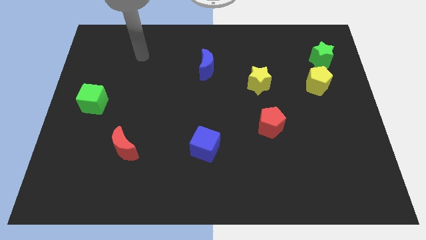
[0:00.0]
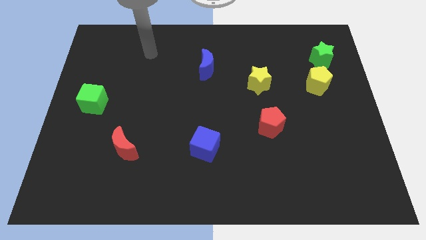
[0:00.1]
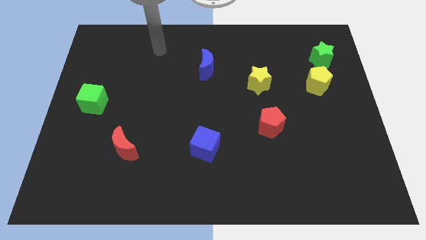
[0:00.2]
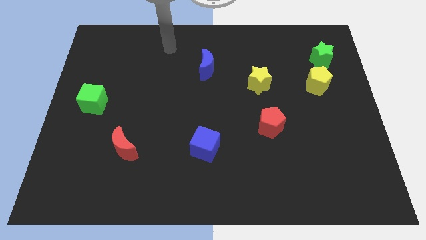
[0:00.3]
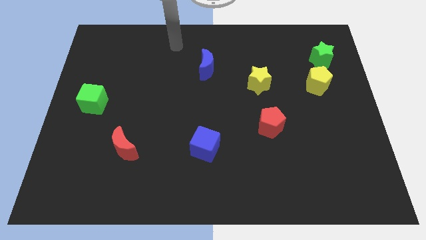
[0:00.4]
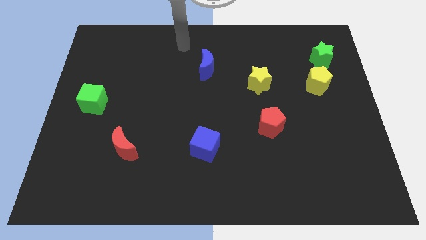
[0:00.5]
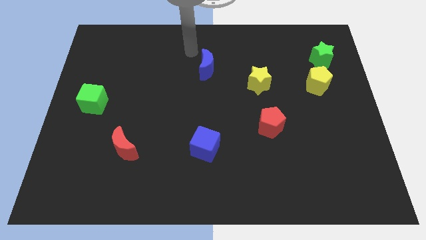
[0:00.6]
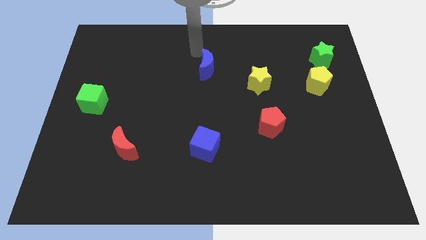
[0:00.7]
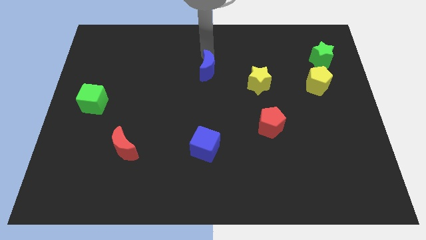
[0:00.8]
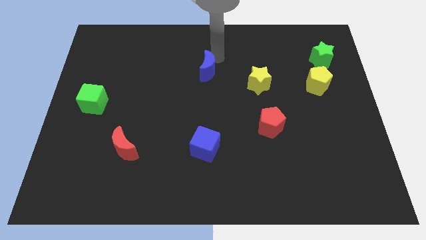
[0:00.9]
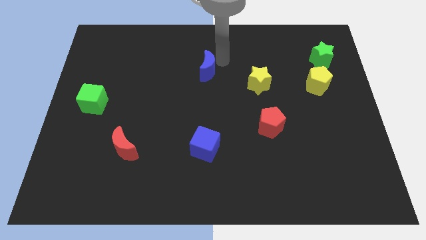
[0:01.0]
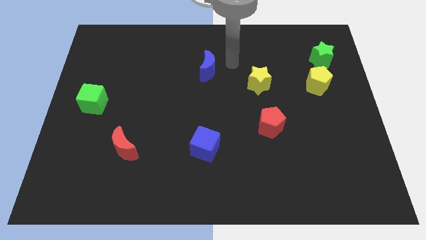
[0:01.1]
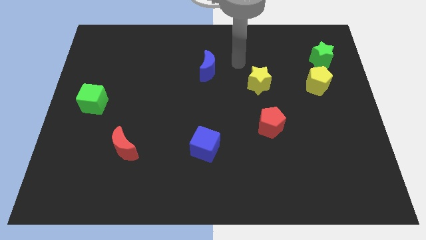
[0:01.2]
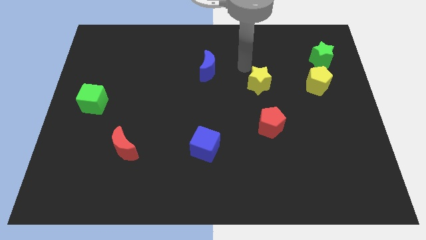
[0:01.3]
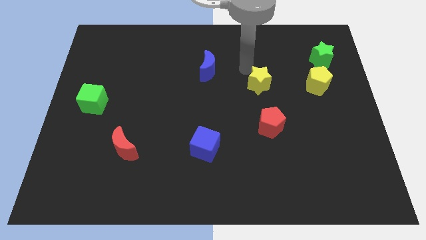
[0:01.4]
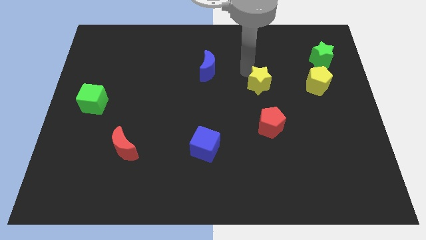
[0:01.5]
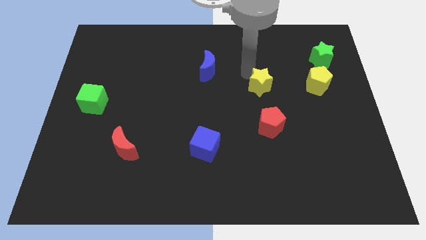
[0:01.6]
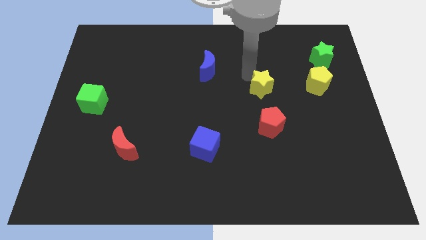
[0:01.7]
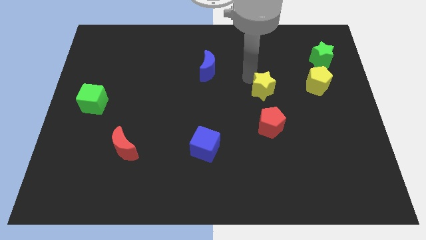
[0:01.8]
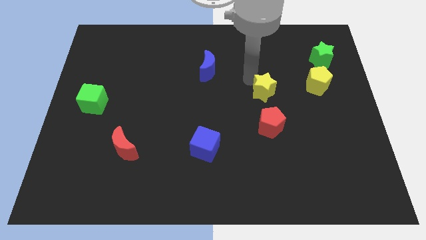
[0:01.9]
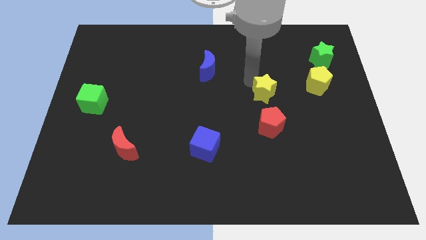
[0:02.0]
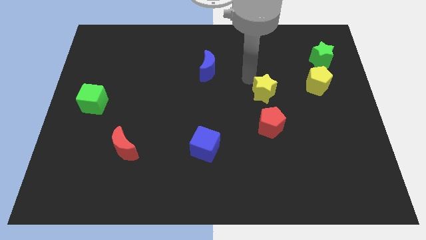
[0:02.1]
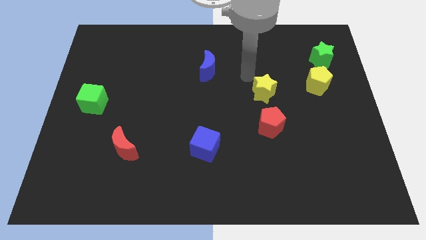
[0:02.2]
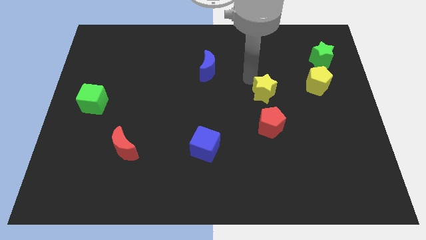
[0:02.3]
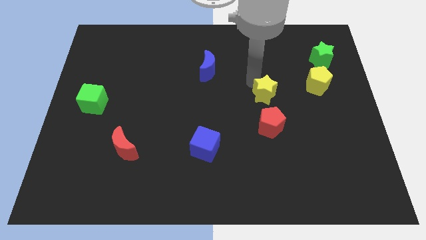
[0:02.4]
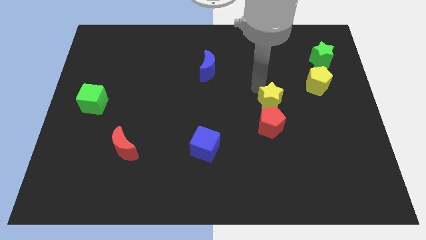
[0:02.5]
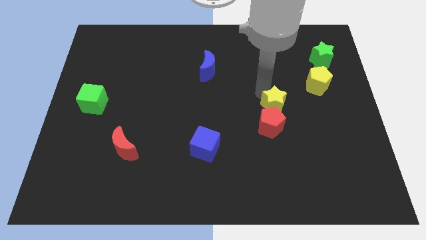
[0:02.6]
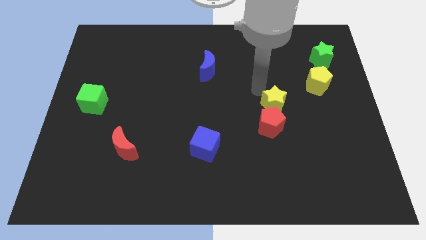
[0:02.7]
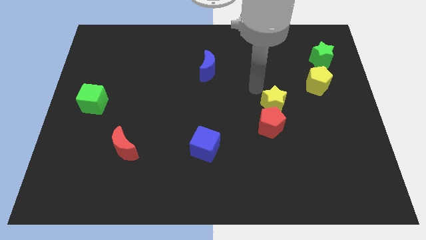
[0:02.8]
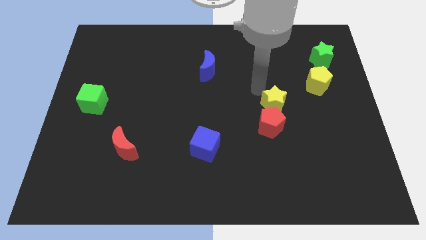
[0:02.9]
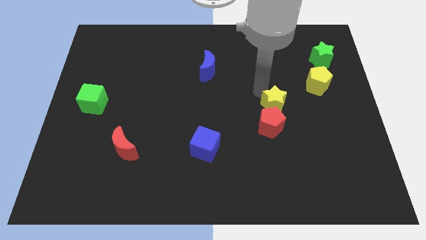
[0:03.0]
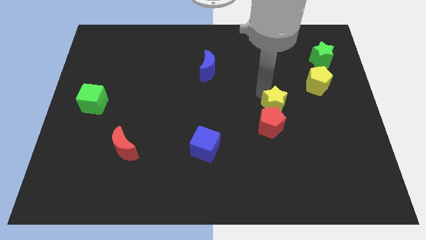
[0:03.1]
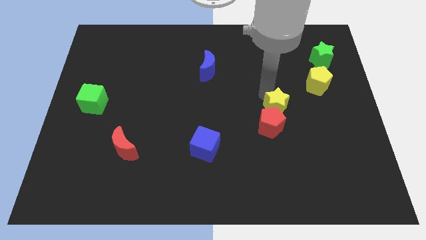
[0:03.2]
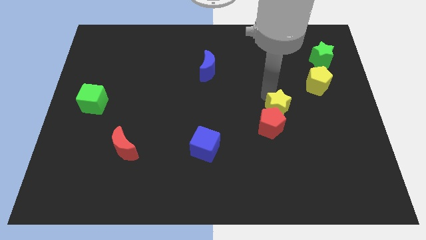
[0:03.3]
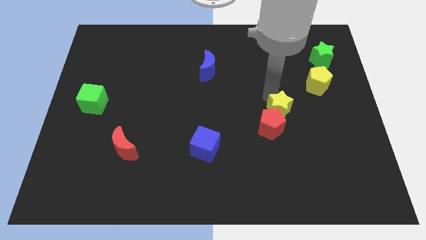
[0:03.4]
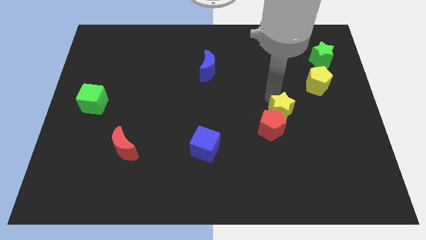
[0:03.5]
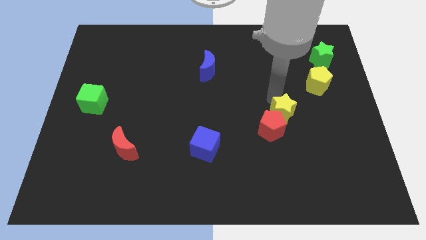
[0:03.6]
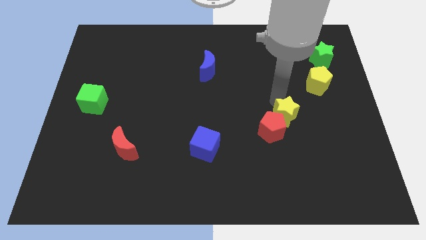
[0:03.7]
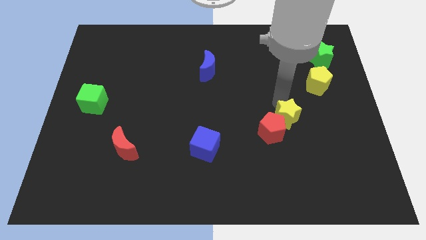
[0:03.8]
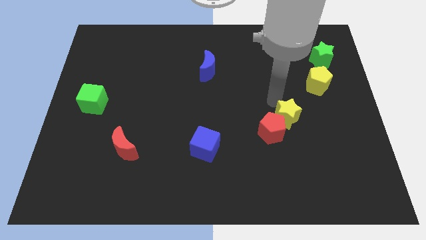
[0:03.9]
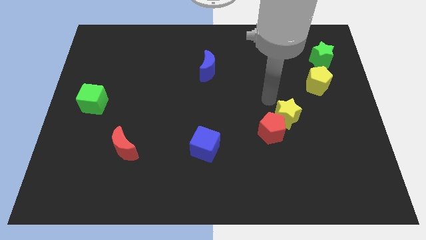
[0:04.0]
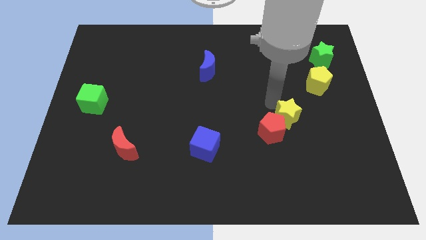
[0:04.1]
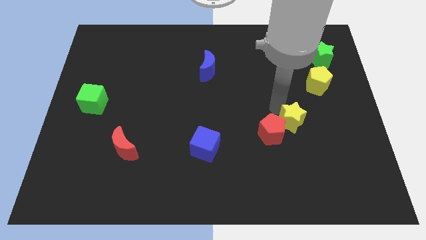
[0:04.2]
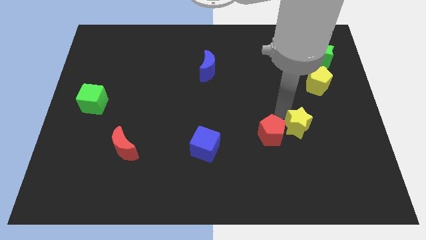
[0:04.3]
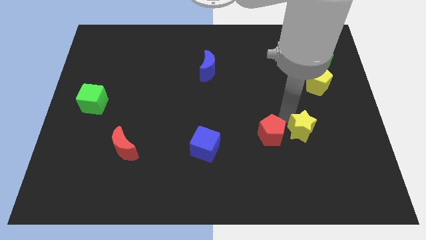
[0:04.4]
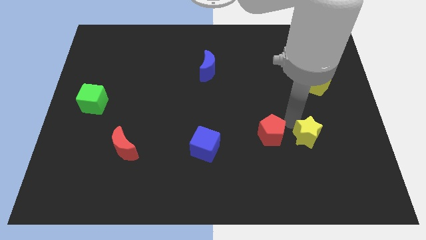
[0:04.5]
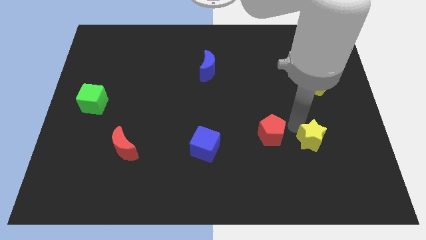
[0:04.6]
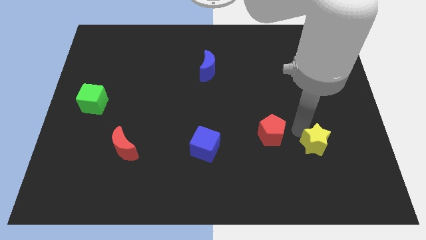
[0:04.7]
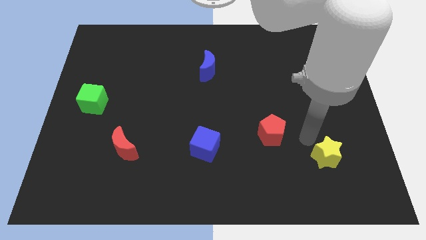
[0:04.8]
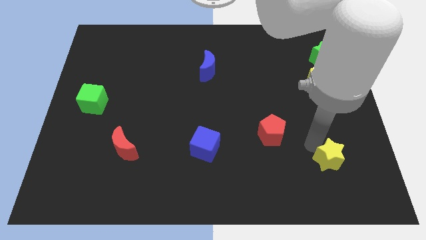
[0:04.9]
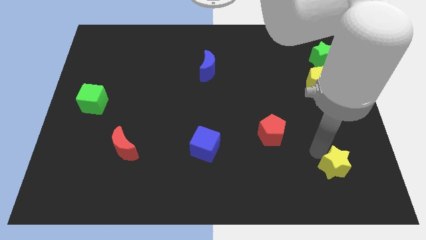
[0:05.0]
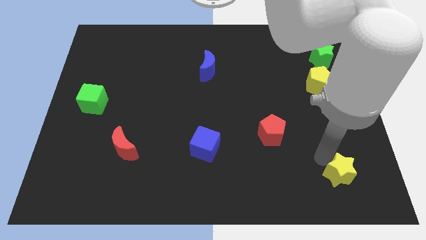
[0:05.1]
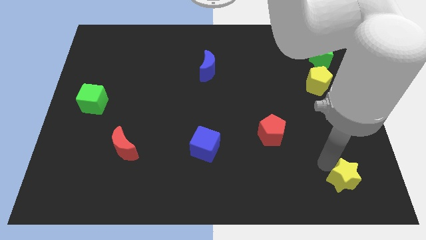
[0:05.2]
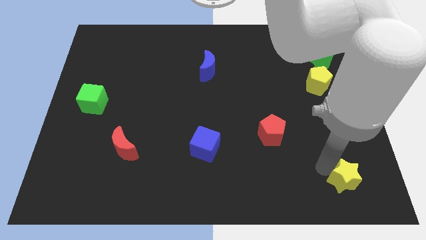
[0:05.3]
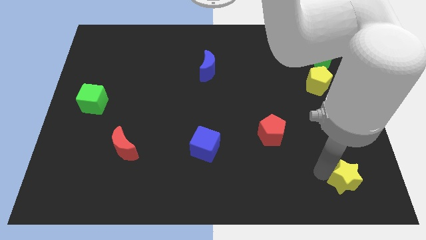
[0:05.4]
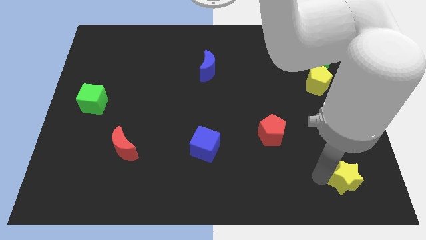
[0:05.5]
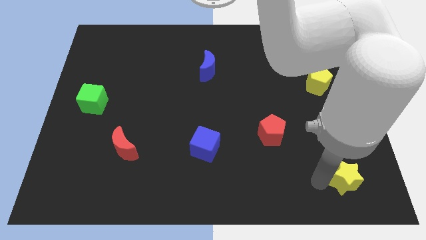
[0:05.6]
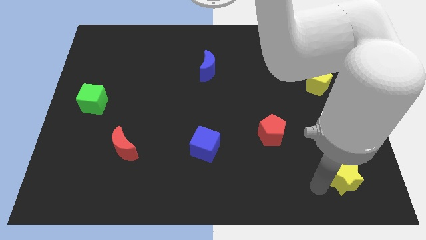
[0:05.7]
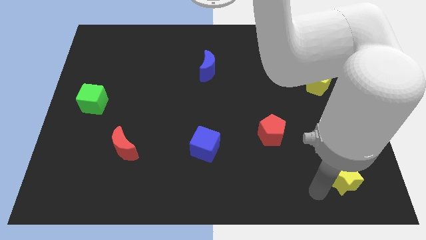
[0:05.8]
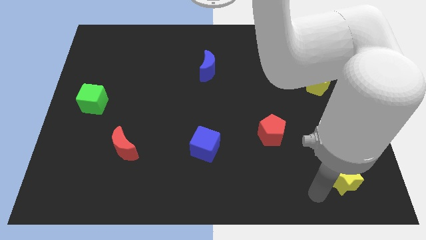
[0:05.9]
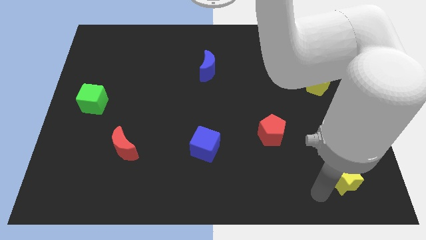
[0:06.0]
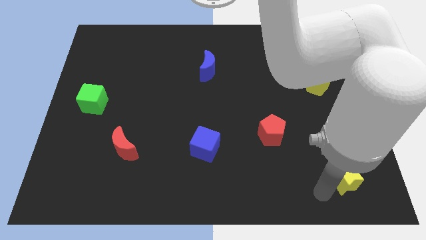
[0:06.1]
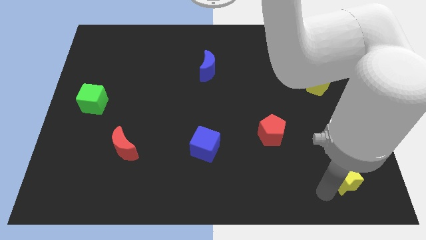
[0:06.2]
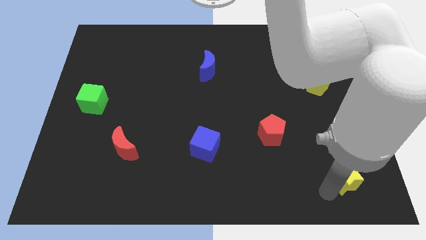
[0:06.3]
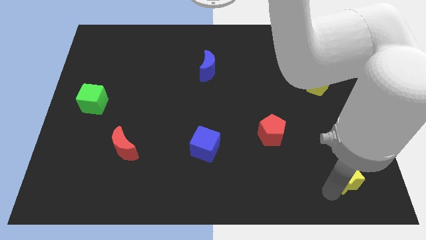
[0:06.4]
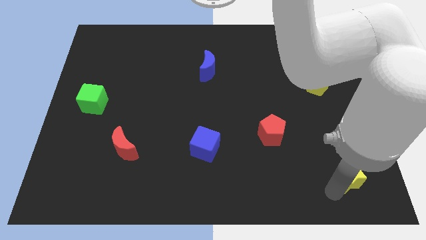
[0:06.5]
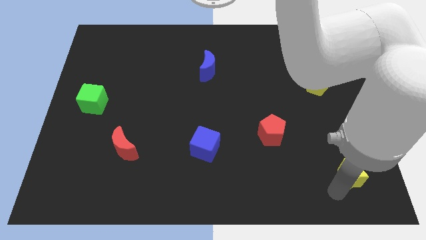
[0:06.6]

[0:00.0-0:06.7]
push the yellow star to the bottom right
